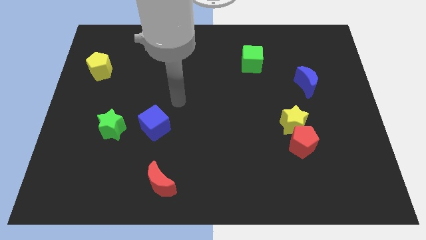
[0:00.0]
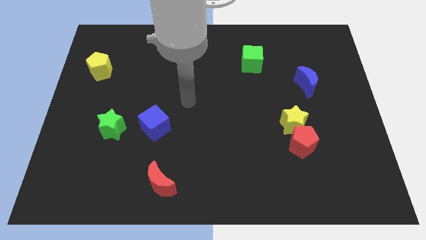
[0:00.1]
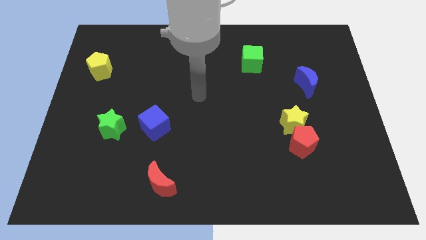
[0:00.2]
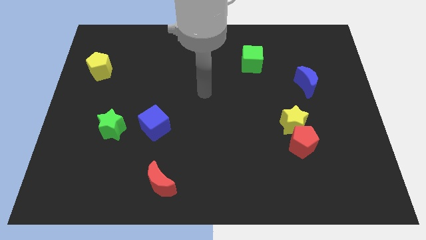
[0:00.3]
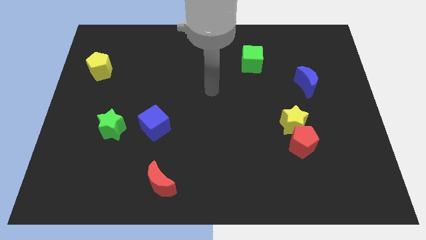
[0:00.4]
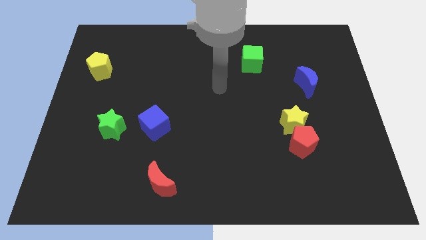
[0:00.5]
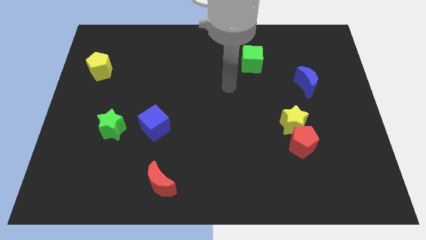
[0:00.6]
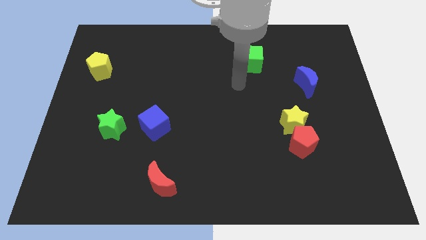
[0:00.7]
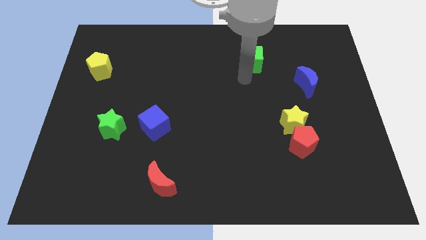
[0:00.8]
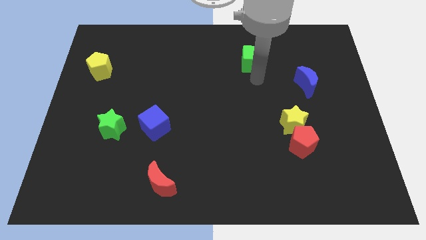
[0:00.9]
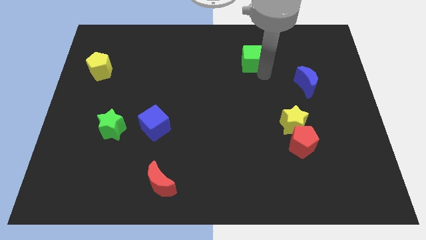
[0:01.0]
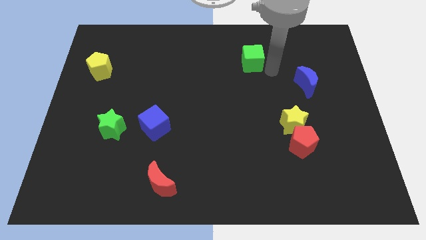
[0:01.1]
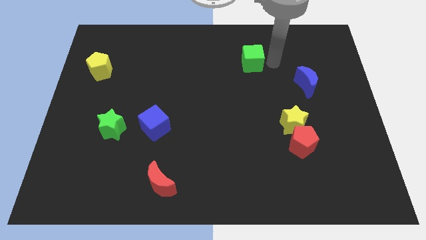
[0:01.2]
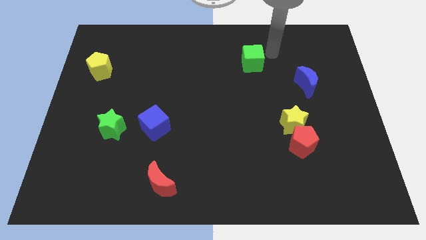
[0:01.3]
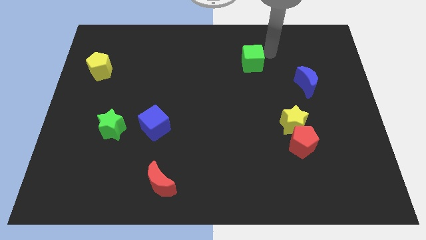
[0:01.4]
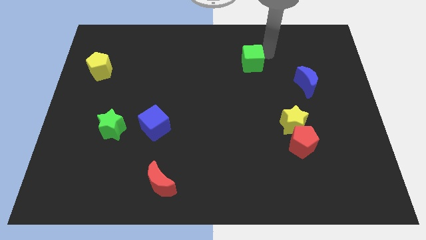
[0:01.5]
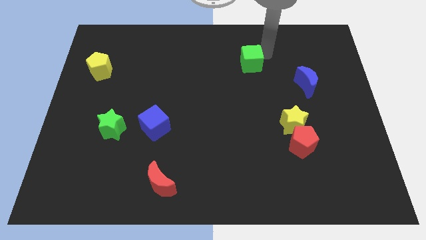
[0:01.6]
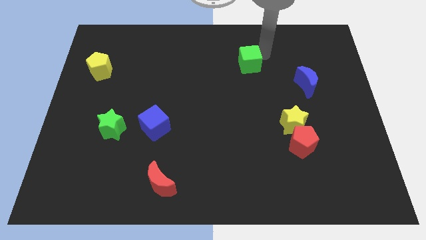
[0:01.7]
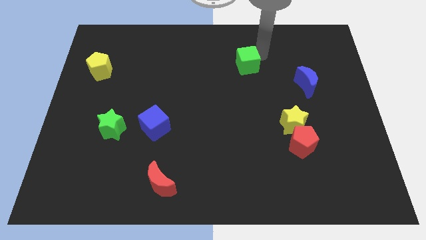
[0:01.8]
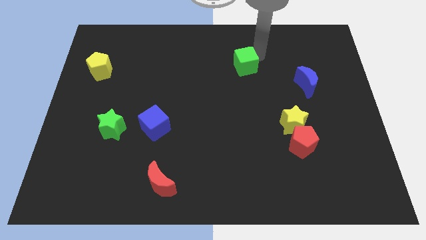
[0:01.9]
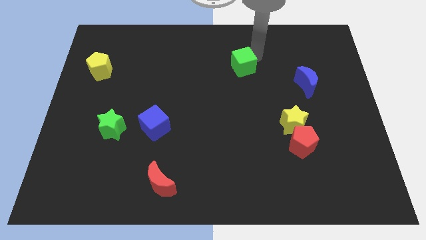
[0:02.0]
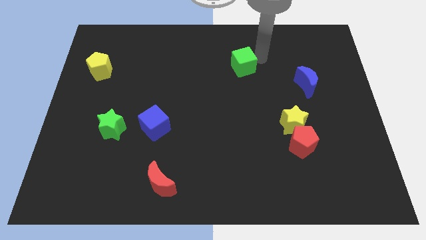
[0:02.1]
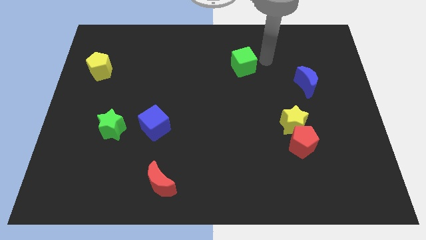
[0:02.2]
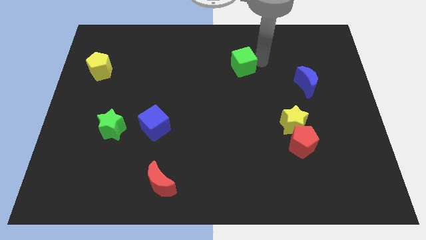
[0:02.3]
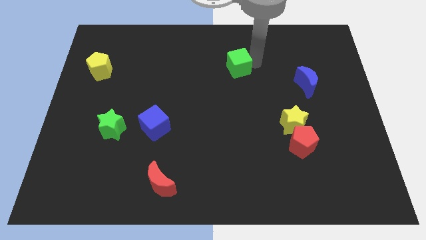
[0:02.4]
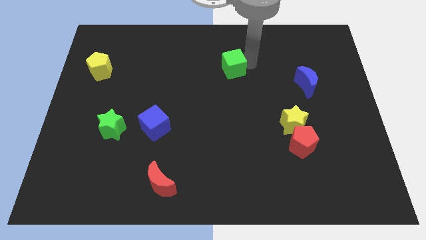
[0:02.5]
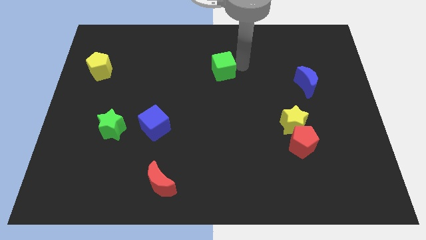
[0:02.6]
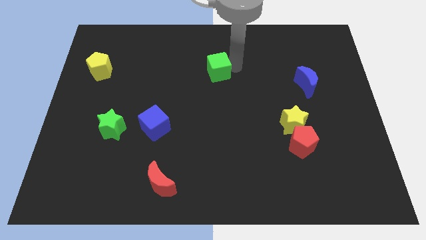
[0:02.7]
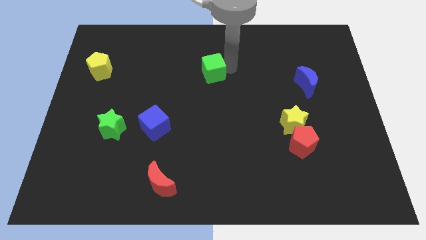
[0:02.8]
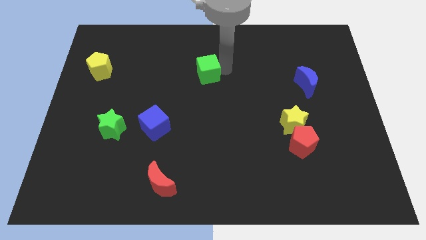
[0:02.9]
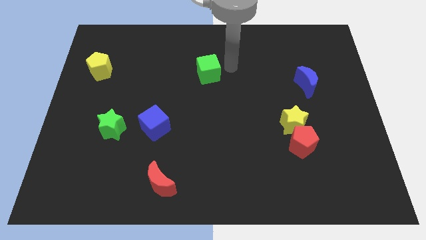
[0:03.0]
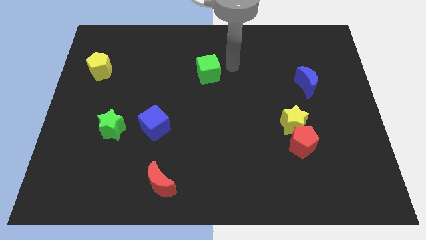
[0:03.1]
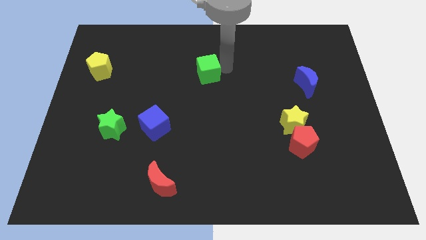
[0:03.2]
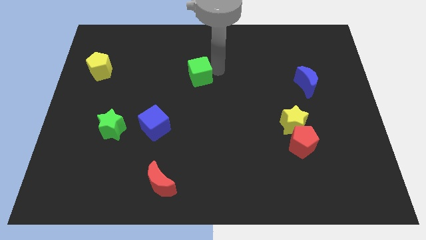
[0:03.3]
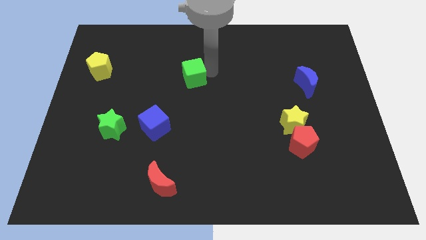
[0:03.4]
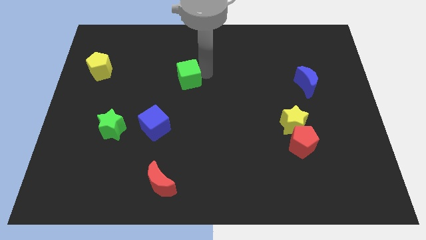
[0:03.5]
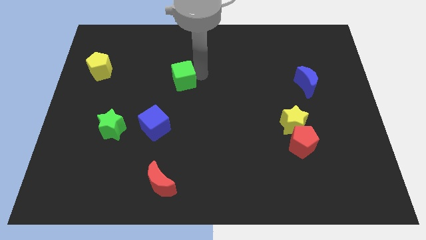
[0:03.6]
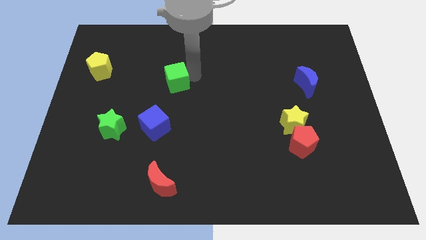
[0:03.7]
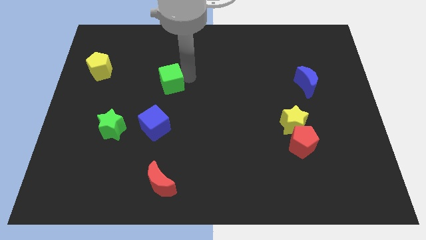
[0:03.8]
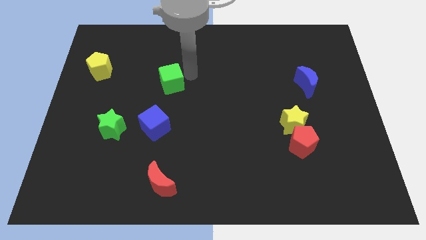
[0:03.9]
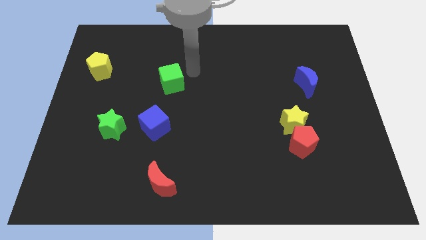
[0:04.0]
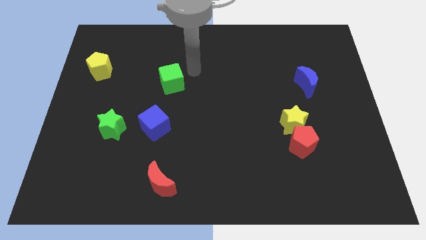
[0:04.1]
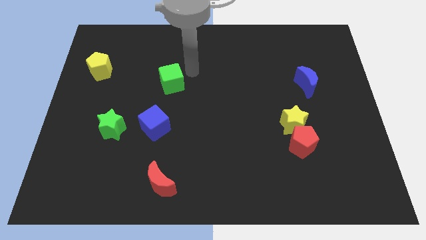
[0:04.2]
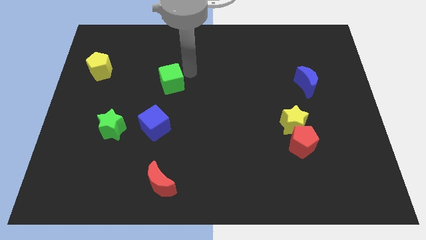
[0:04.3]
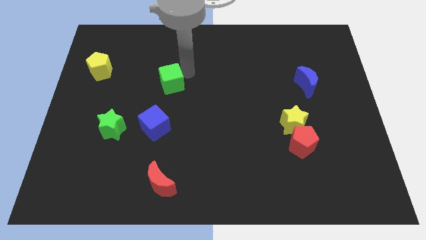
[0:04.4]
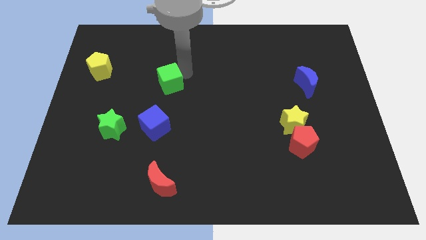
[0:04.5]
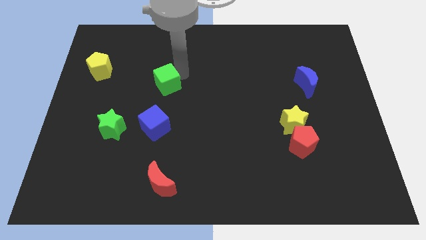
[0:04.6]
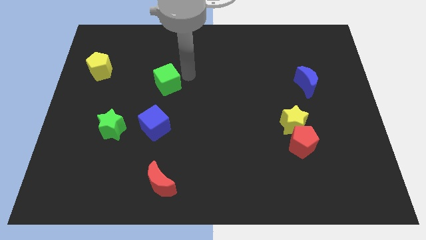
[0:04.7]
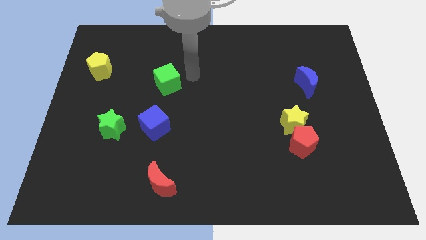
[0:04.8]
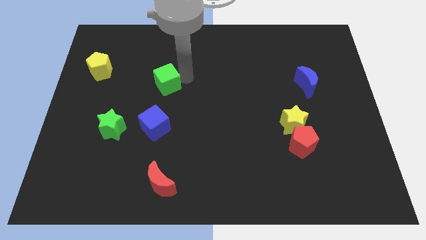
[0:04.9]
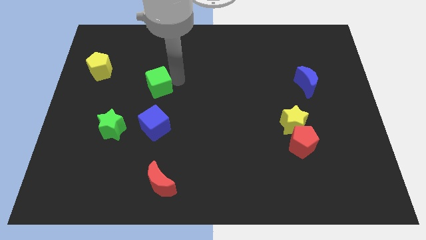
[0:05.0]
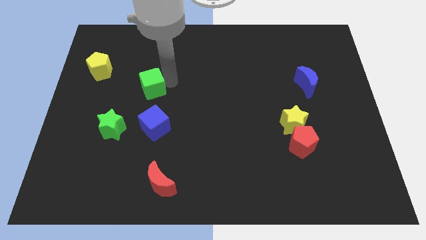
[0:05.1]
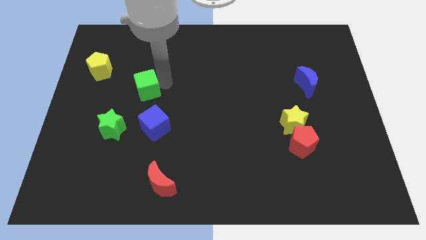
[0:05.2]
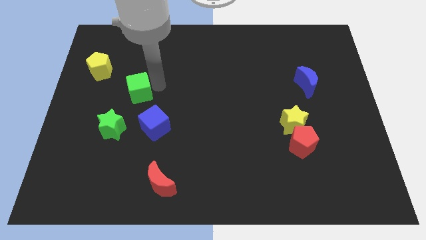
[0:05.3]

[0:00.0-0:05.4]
push the green cube to the top side of the green star

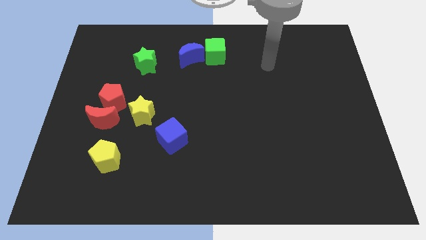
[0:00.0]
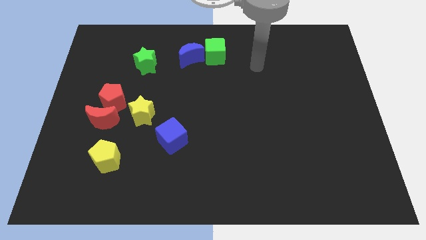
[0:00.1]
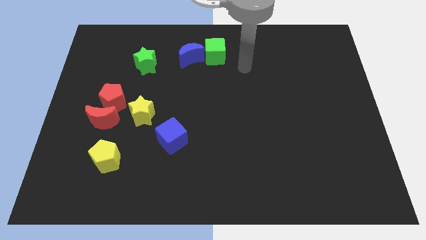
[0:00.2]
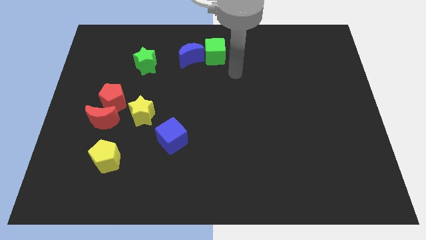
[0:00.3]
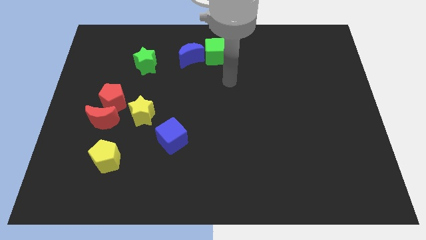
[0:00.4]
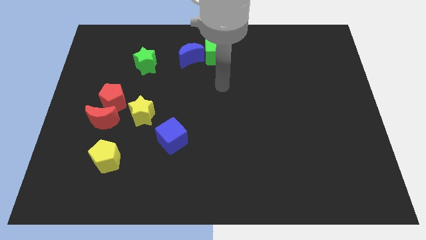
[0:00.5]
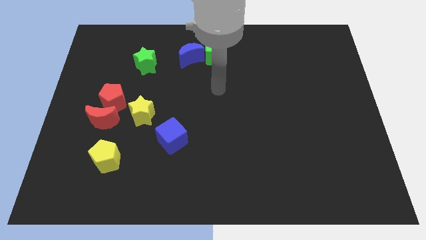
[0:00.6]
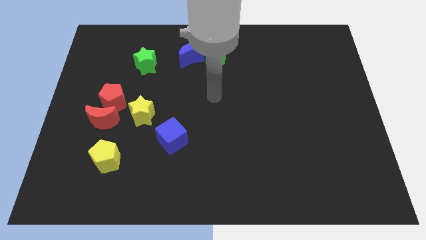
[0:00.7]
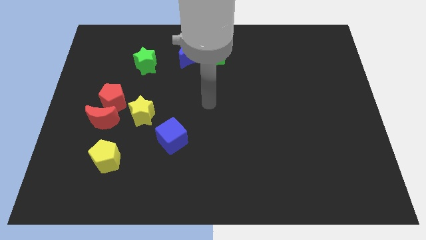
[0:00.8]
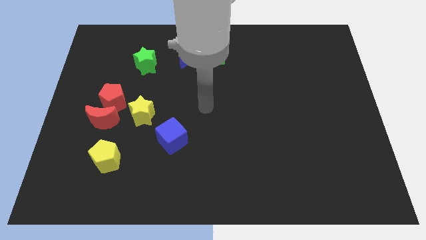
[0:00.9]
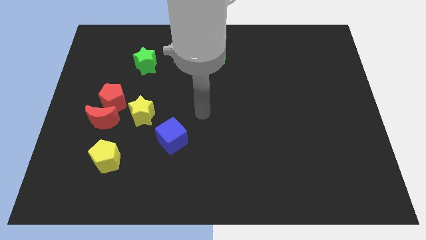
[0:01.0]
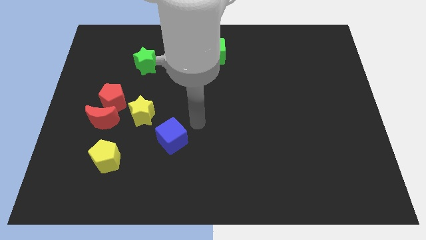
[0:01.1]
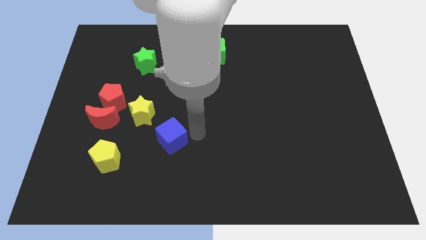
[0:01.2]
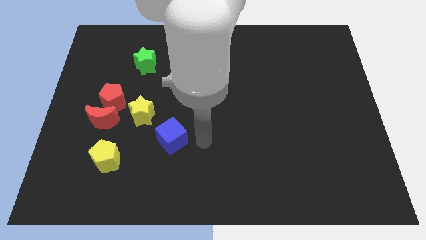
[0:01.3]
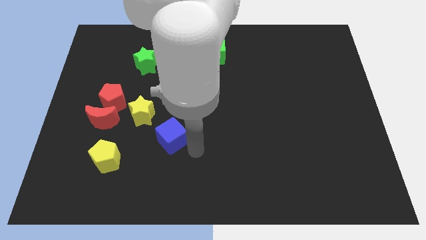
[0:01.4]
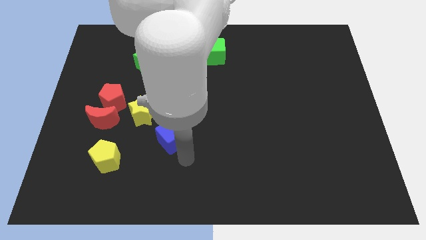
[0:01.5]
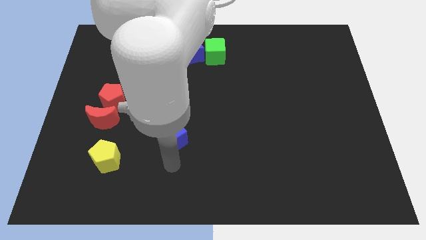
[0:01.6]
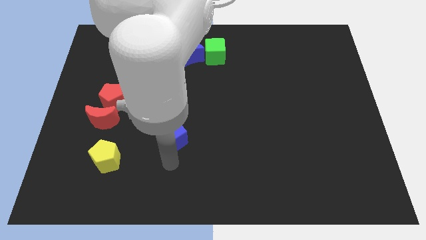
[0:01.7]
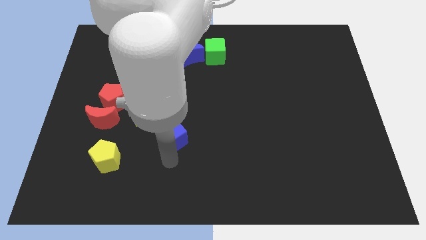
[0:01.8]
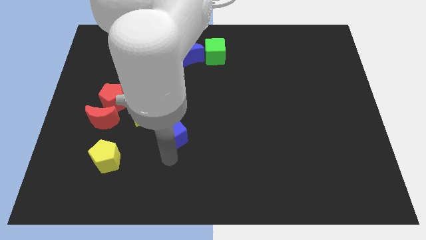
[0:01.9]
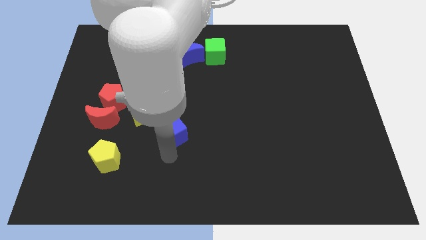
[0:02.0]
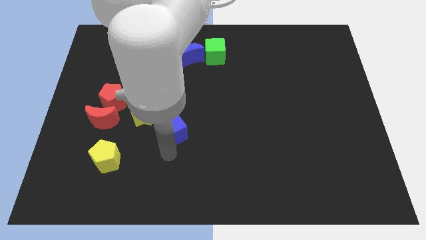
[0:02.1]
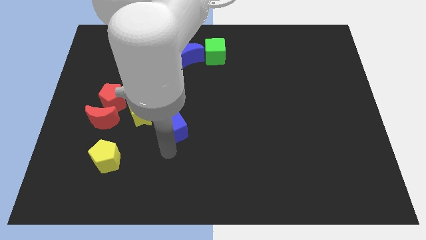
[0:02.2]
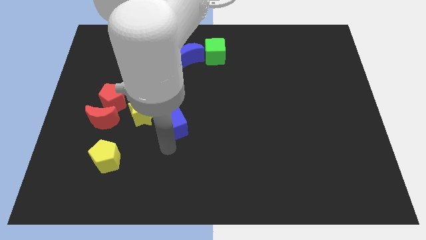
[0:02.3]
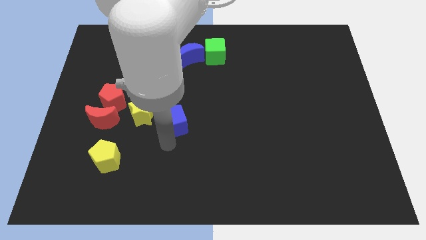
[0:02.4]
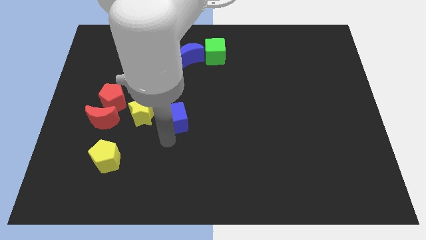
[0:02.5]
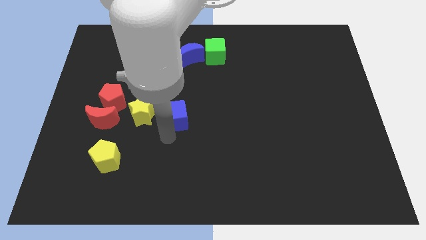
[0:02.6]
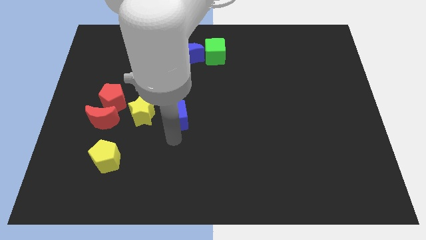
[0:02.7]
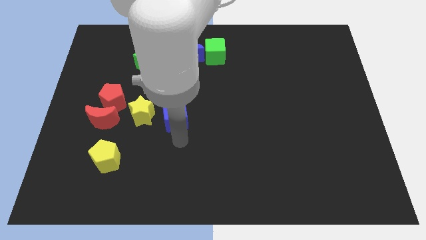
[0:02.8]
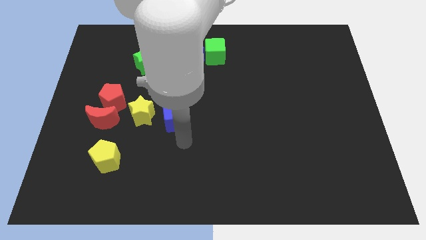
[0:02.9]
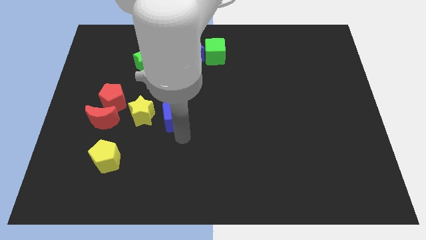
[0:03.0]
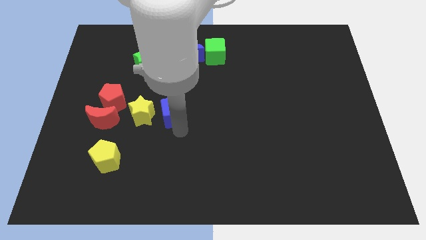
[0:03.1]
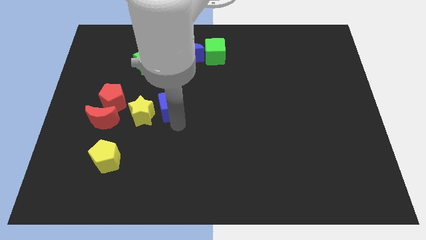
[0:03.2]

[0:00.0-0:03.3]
move the blue cube diagonally up and to the right of the yellow star
